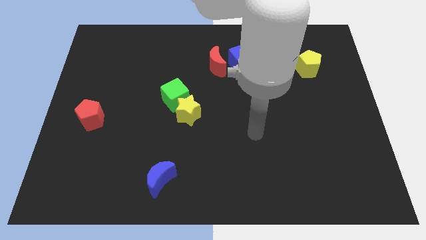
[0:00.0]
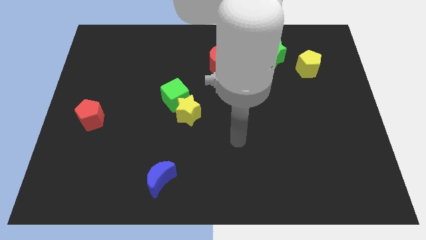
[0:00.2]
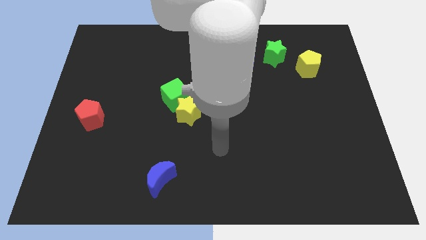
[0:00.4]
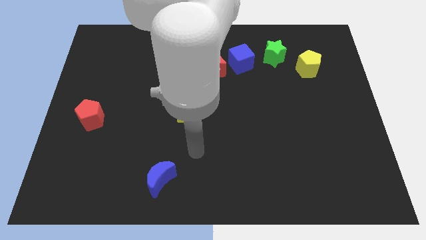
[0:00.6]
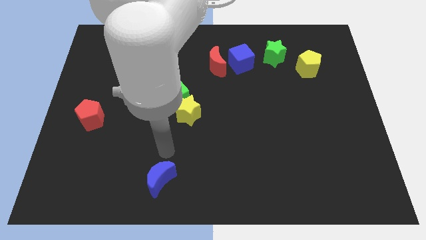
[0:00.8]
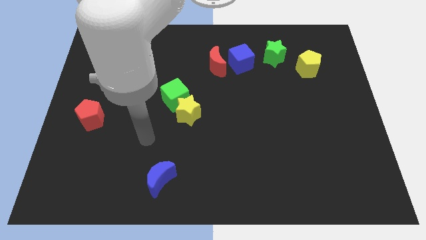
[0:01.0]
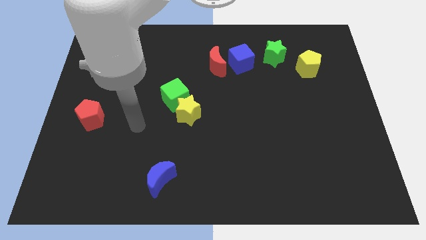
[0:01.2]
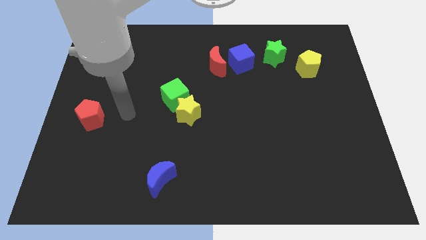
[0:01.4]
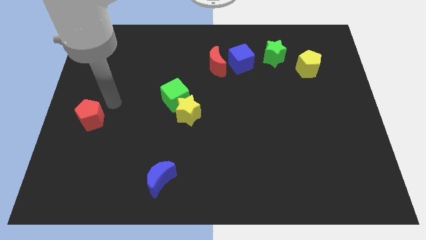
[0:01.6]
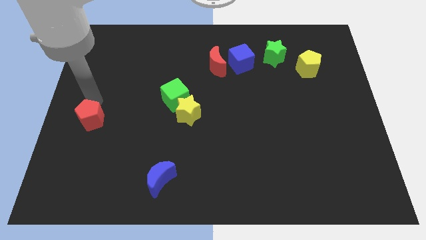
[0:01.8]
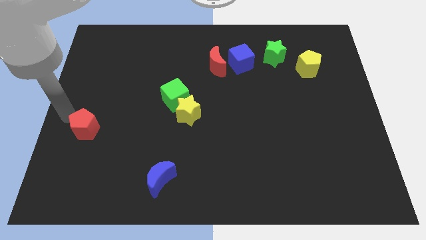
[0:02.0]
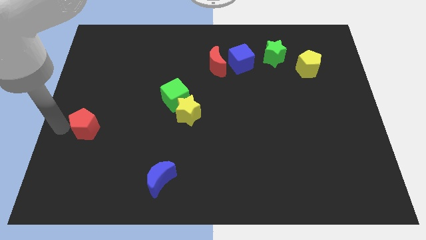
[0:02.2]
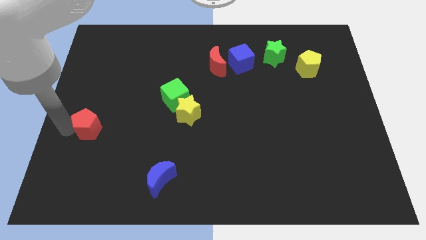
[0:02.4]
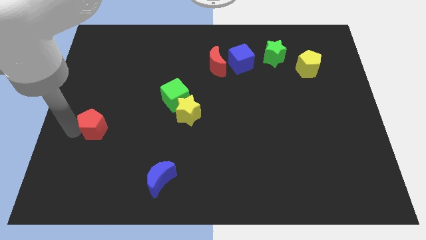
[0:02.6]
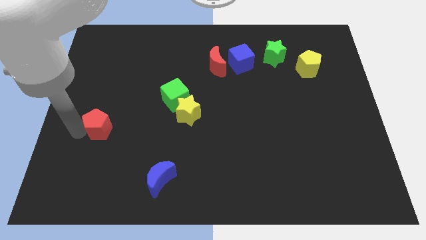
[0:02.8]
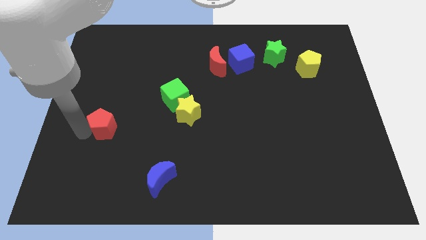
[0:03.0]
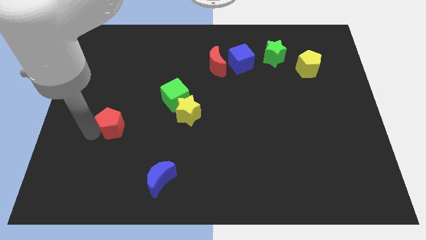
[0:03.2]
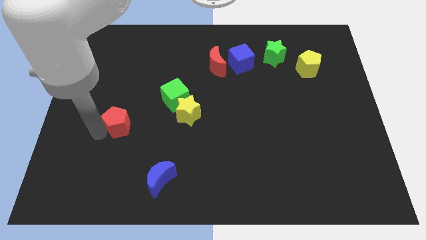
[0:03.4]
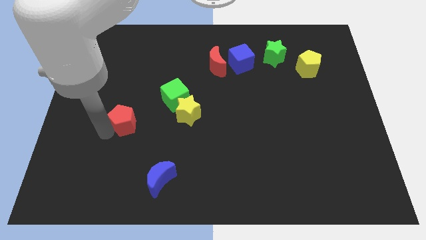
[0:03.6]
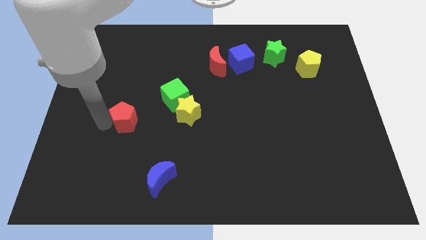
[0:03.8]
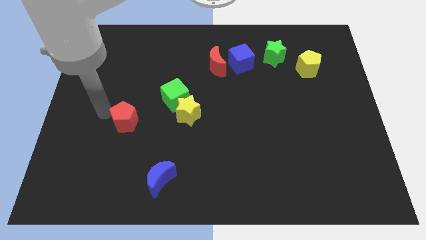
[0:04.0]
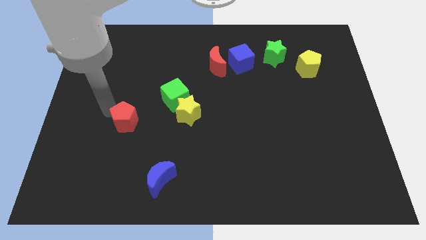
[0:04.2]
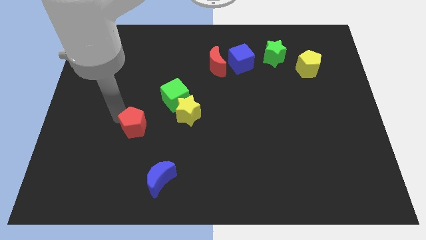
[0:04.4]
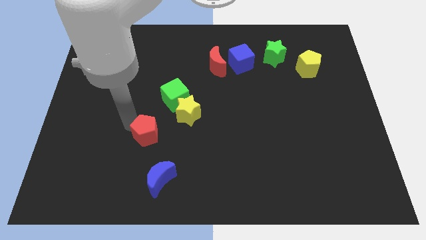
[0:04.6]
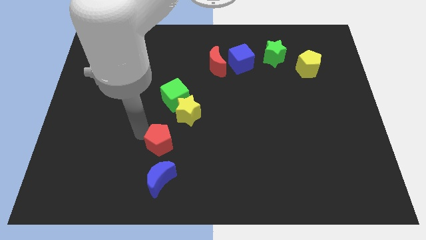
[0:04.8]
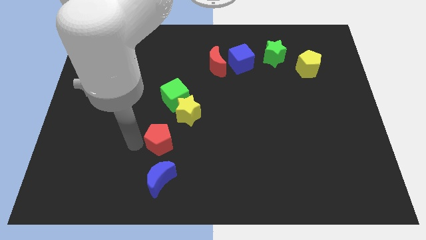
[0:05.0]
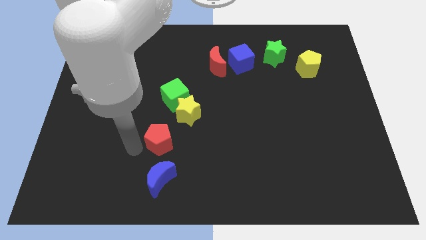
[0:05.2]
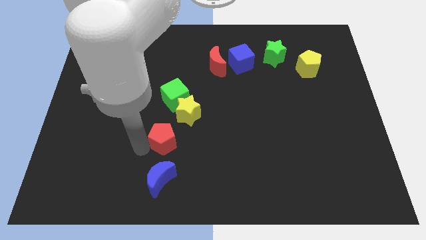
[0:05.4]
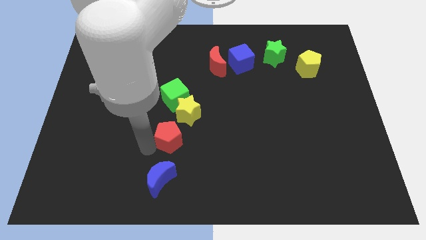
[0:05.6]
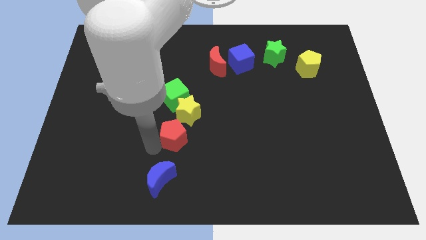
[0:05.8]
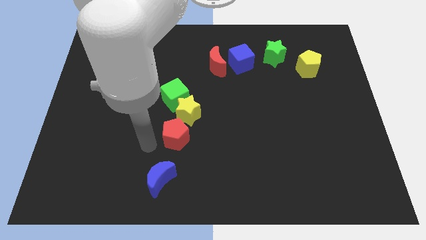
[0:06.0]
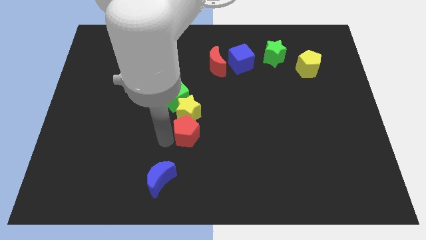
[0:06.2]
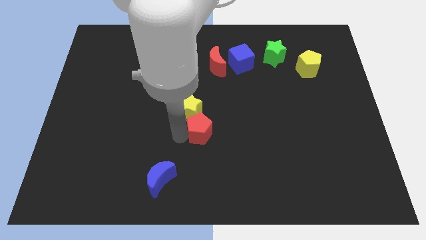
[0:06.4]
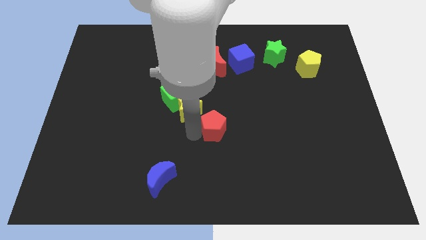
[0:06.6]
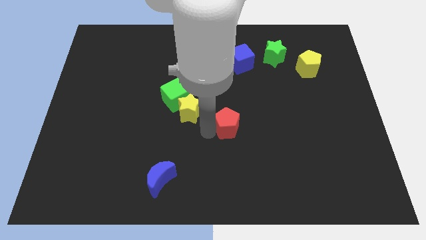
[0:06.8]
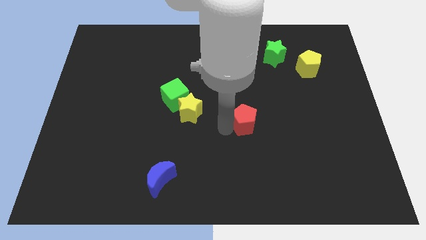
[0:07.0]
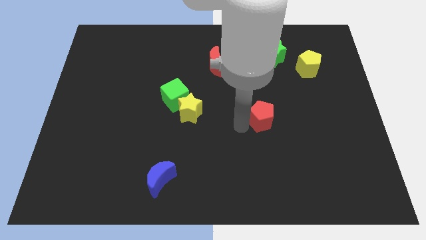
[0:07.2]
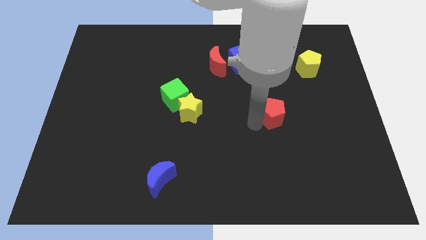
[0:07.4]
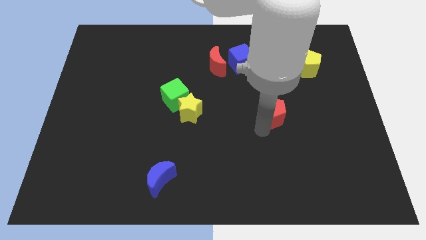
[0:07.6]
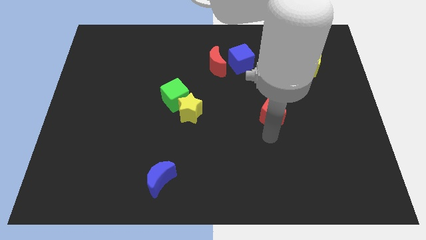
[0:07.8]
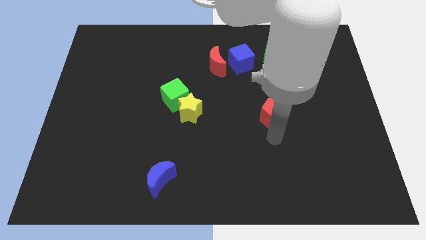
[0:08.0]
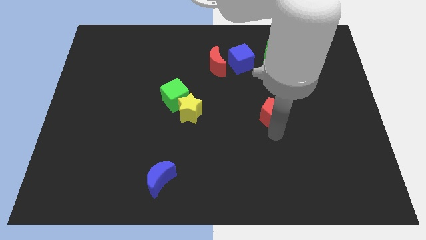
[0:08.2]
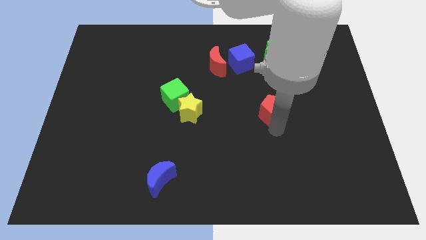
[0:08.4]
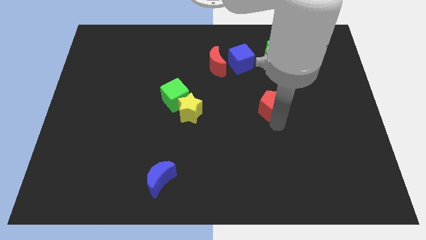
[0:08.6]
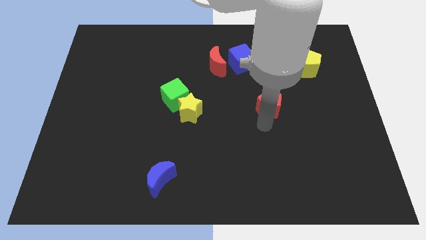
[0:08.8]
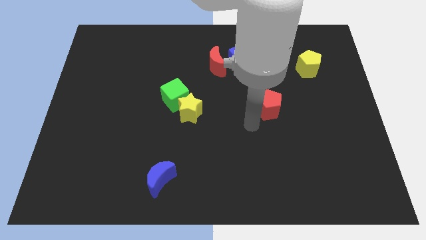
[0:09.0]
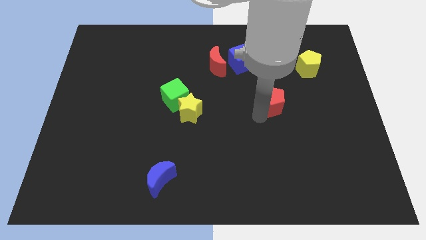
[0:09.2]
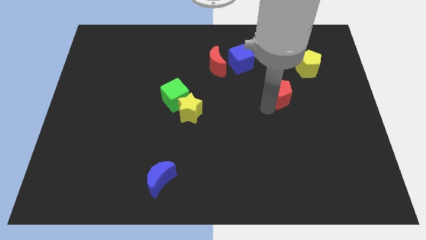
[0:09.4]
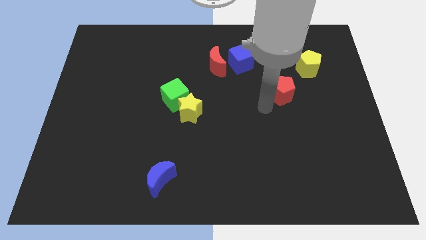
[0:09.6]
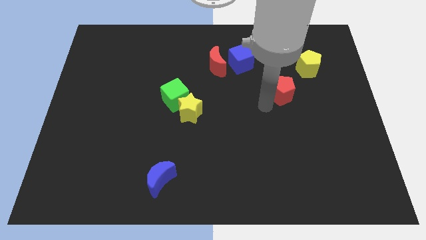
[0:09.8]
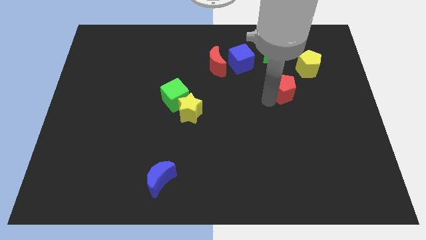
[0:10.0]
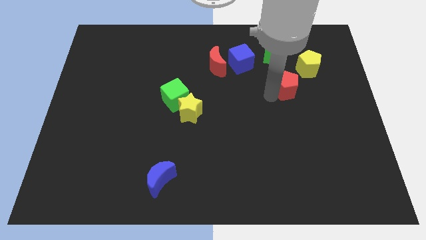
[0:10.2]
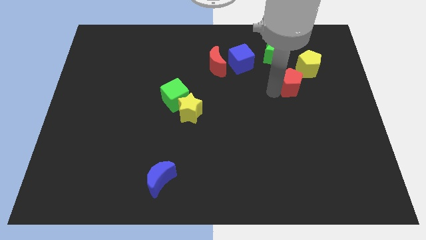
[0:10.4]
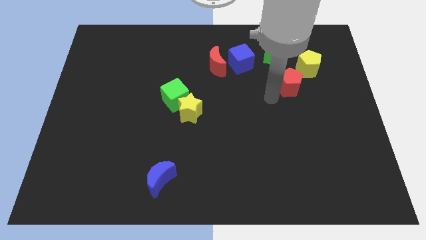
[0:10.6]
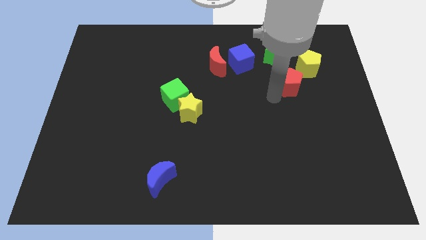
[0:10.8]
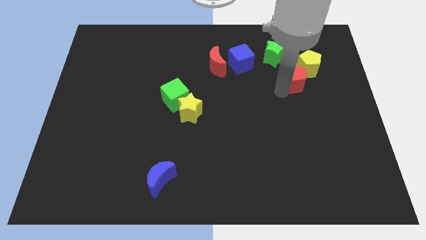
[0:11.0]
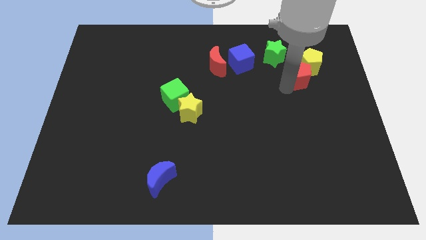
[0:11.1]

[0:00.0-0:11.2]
put the red pentagon close to the yellow pentagon

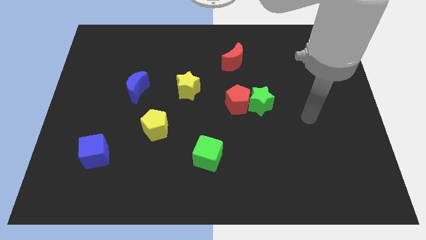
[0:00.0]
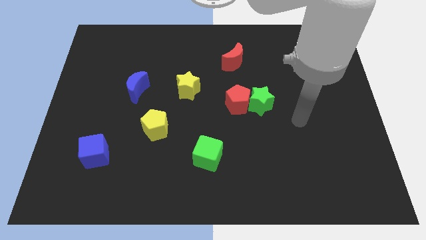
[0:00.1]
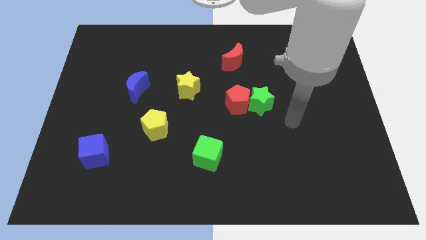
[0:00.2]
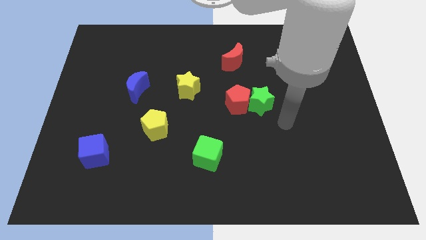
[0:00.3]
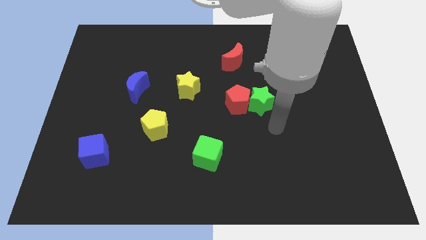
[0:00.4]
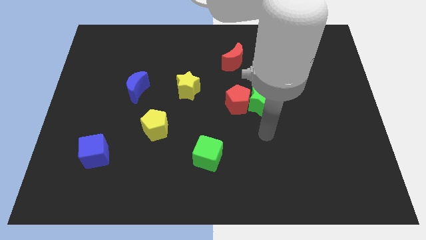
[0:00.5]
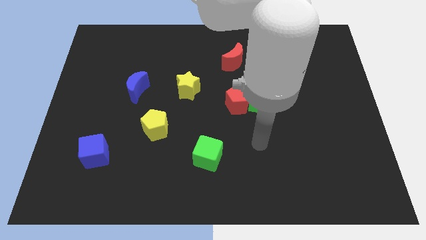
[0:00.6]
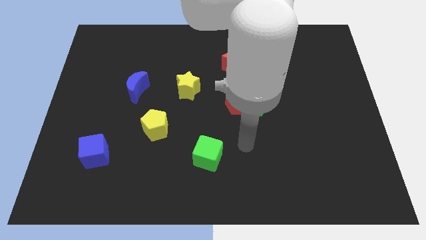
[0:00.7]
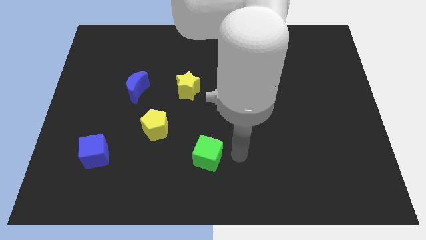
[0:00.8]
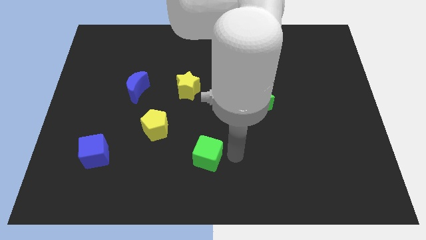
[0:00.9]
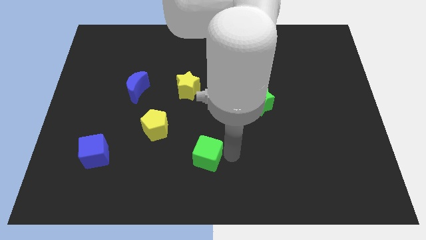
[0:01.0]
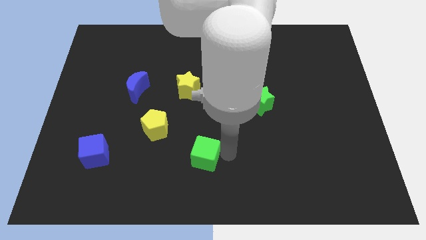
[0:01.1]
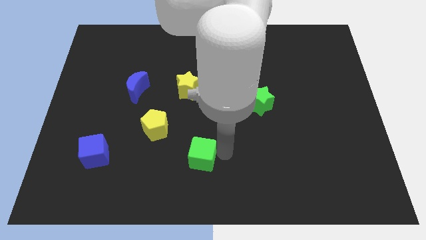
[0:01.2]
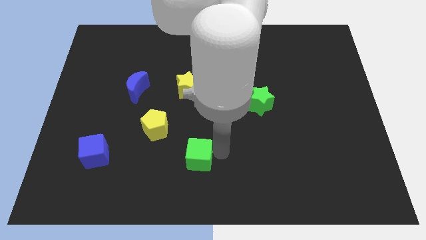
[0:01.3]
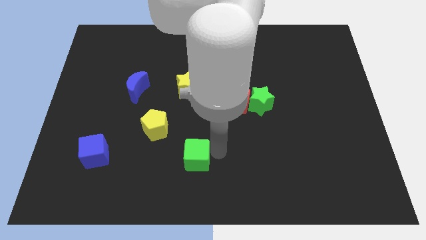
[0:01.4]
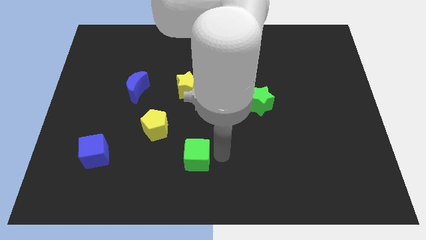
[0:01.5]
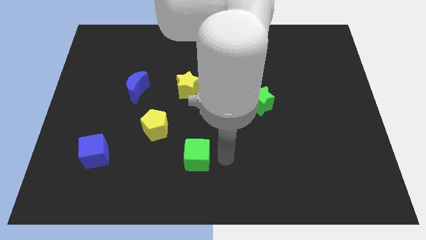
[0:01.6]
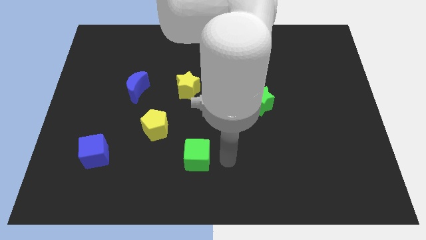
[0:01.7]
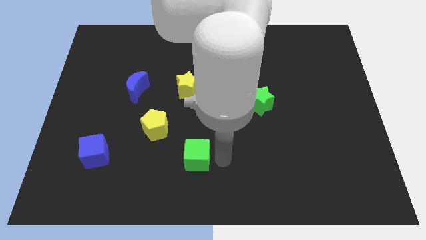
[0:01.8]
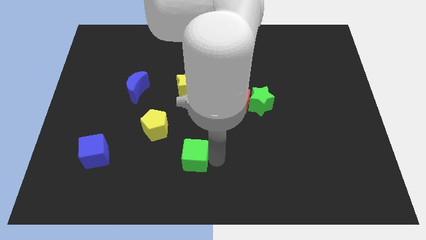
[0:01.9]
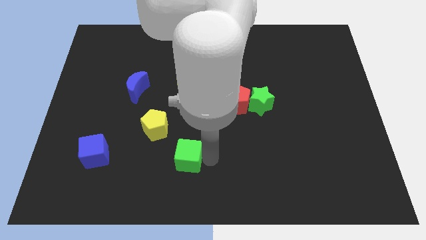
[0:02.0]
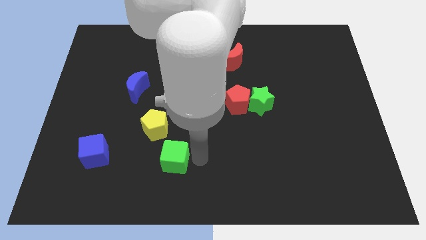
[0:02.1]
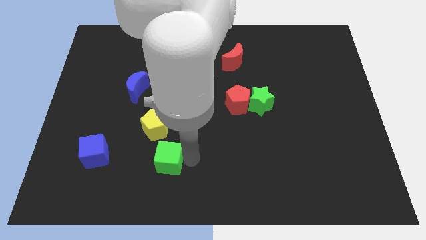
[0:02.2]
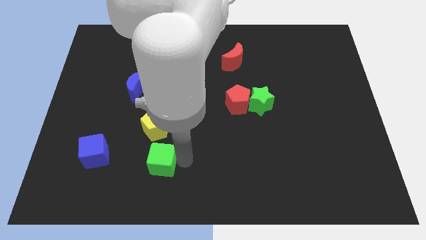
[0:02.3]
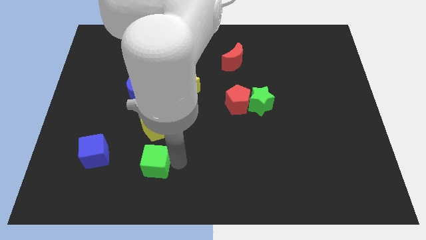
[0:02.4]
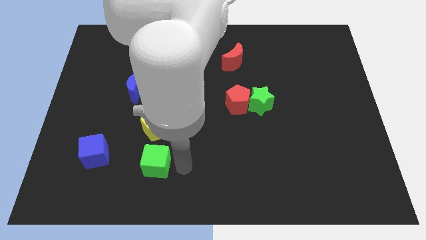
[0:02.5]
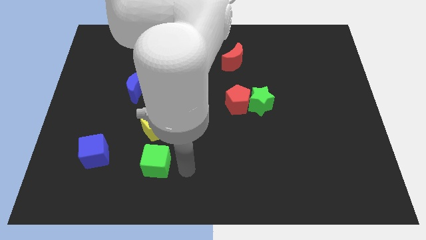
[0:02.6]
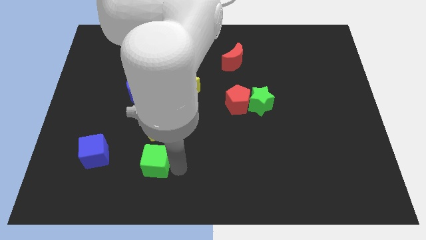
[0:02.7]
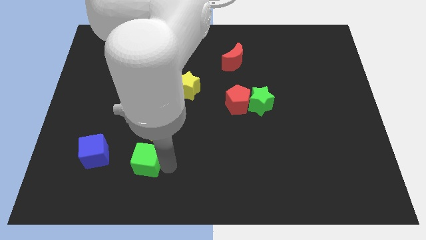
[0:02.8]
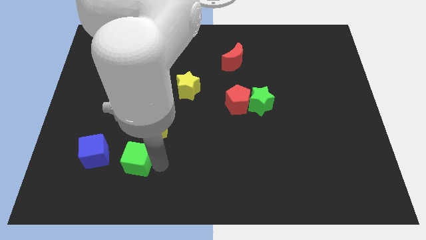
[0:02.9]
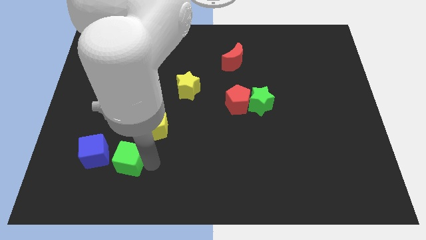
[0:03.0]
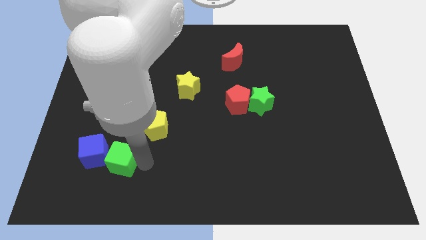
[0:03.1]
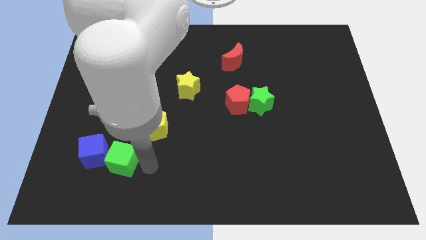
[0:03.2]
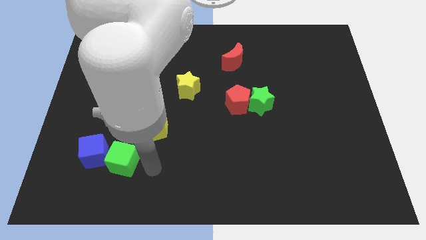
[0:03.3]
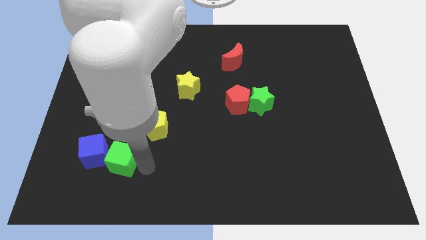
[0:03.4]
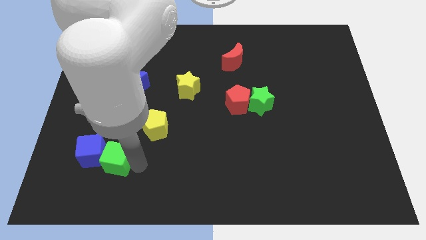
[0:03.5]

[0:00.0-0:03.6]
move the green cube towards the blue cube
